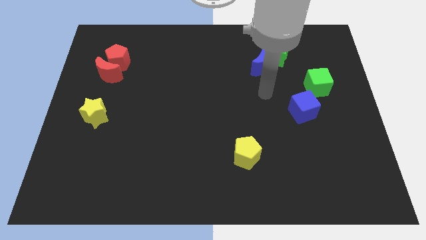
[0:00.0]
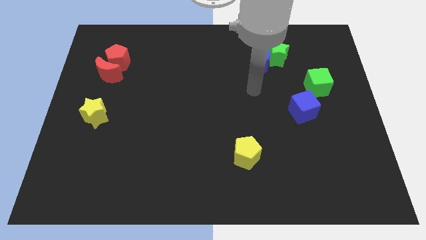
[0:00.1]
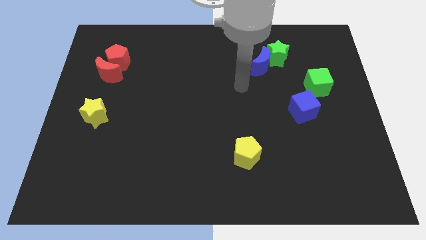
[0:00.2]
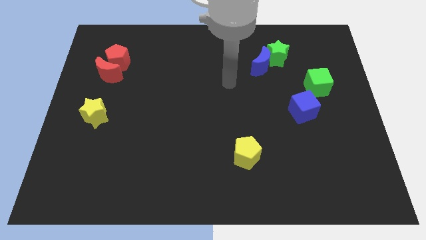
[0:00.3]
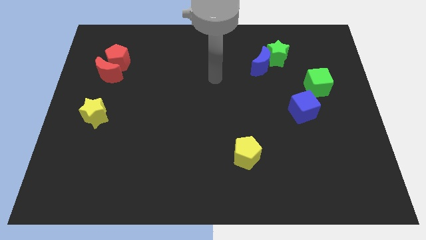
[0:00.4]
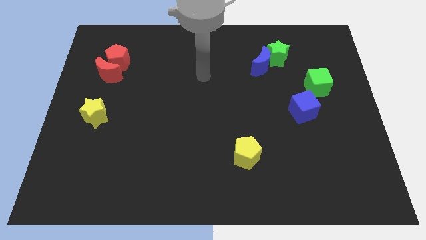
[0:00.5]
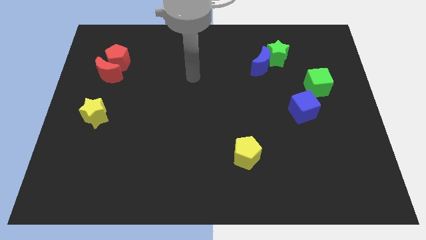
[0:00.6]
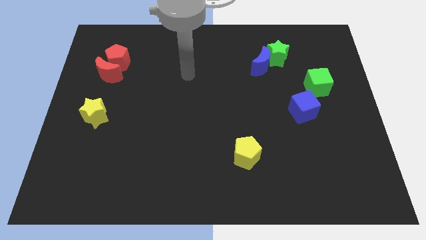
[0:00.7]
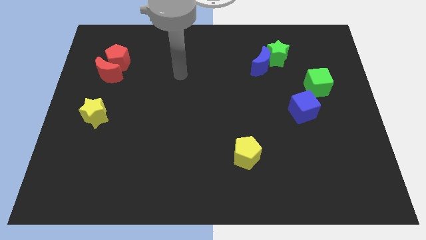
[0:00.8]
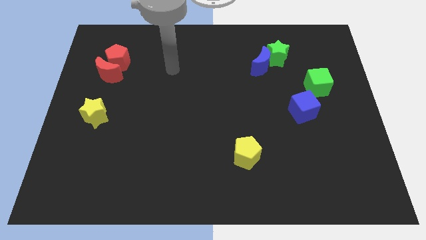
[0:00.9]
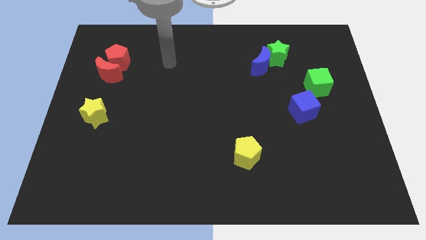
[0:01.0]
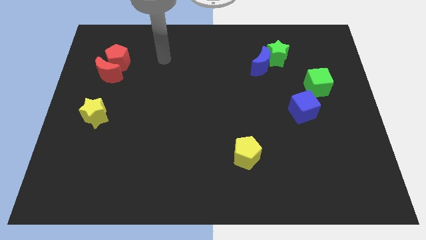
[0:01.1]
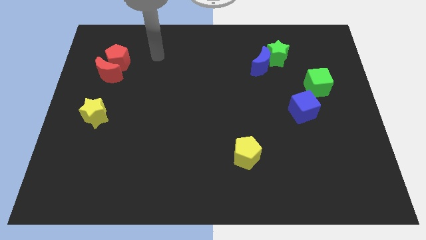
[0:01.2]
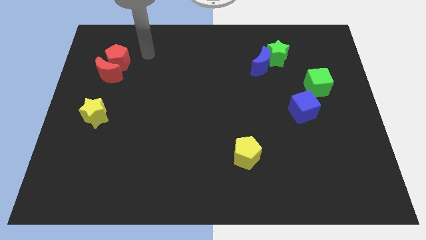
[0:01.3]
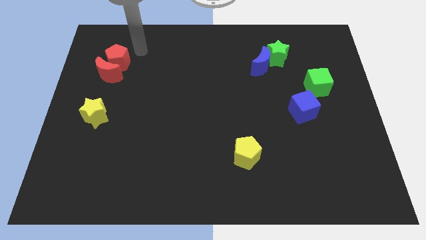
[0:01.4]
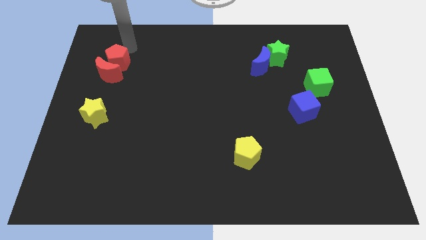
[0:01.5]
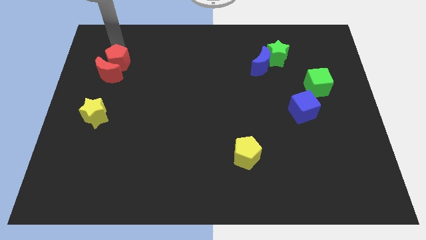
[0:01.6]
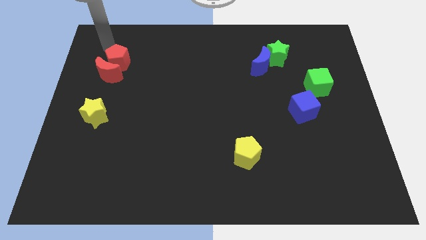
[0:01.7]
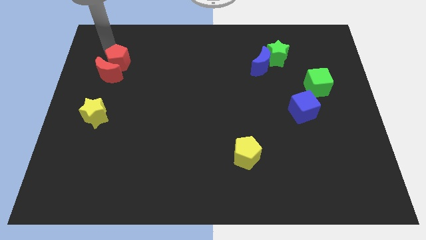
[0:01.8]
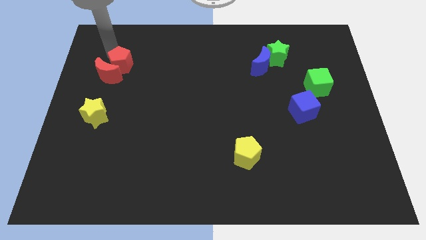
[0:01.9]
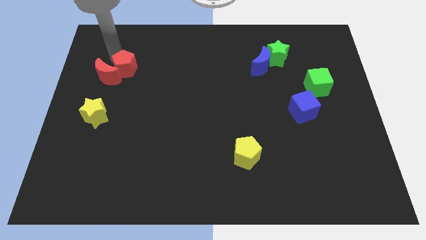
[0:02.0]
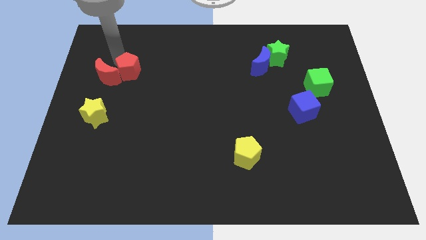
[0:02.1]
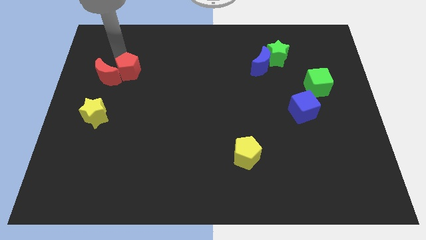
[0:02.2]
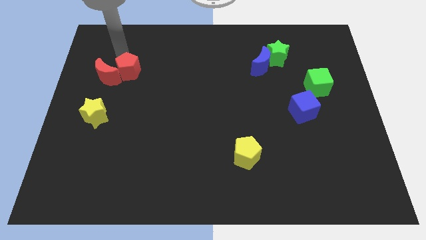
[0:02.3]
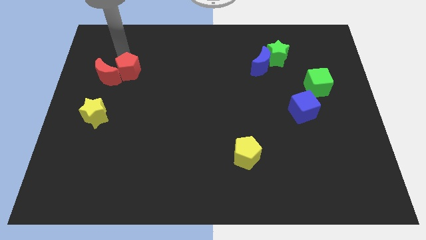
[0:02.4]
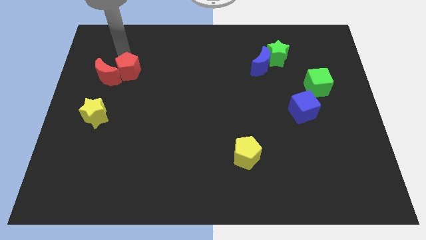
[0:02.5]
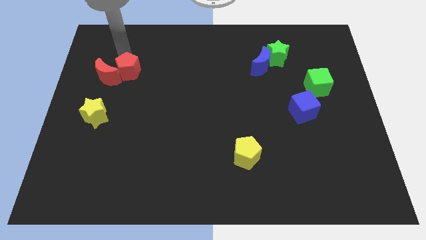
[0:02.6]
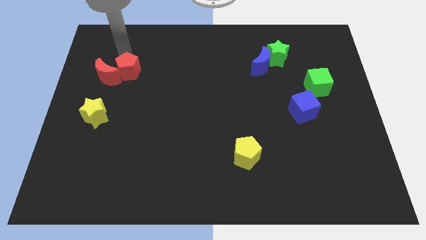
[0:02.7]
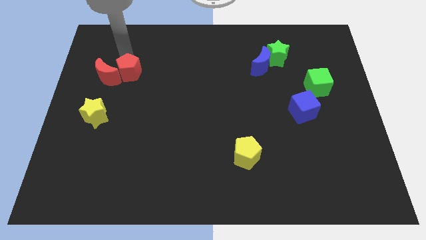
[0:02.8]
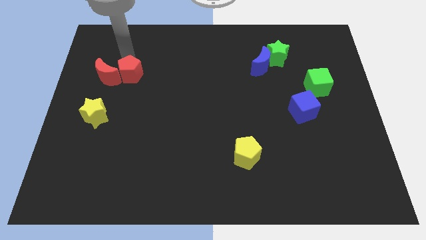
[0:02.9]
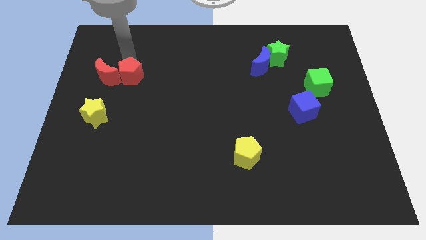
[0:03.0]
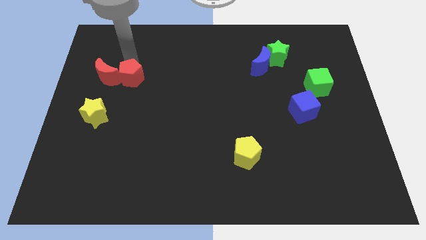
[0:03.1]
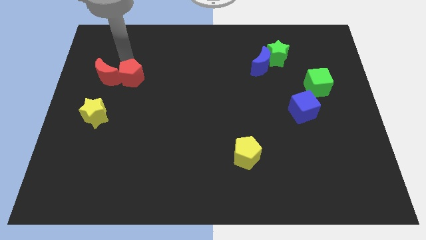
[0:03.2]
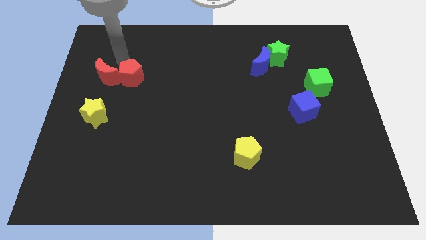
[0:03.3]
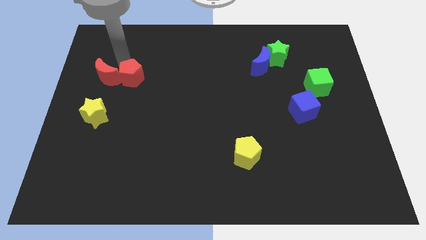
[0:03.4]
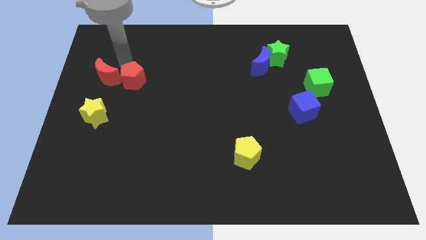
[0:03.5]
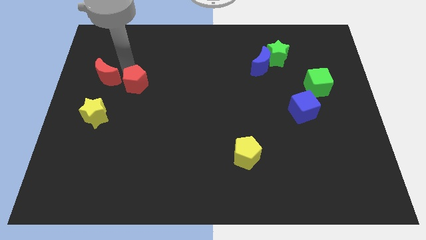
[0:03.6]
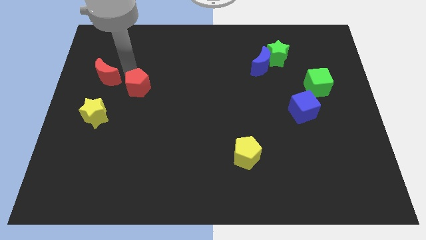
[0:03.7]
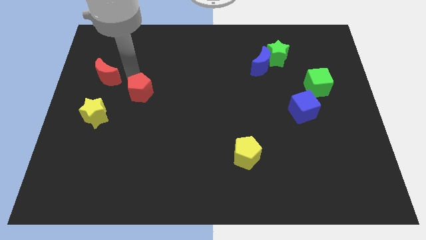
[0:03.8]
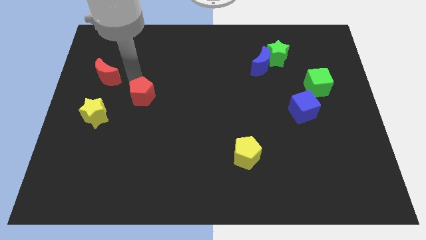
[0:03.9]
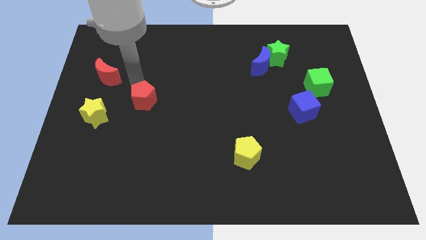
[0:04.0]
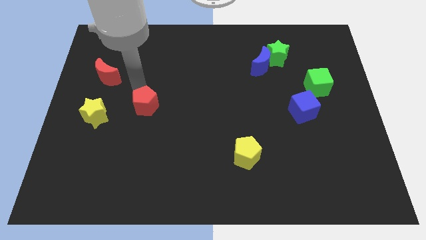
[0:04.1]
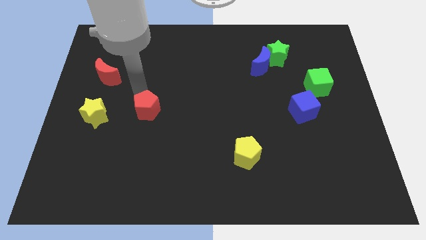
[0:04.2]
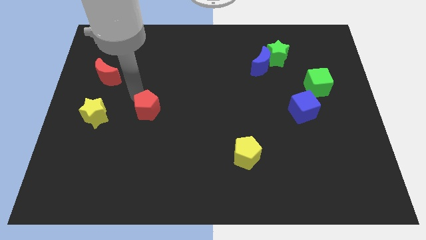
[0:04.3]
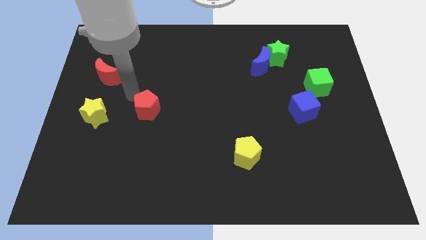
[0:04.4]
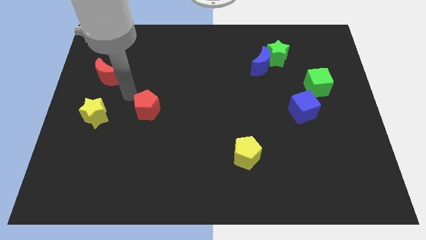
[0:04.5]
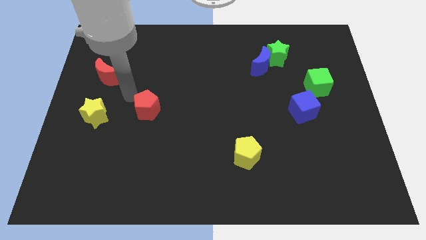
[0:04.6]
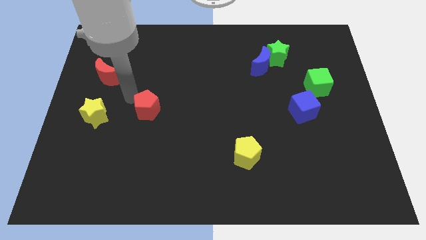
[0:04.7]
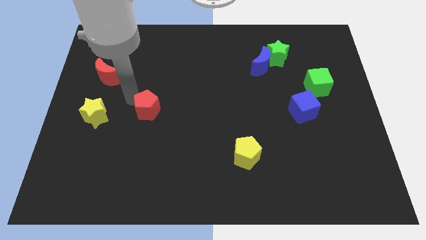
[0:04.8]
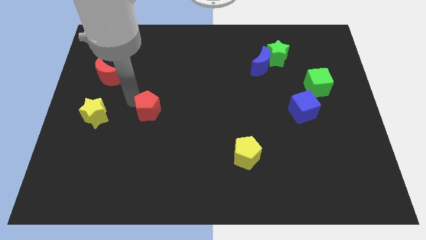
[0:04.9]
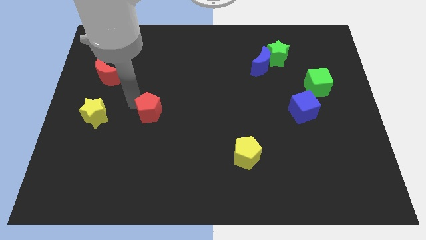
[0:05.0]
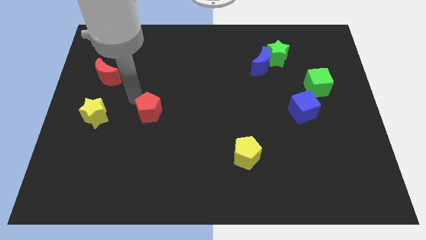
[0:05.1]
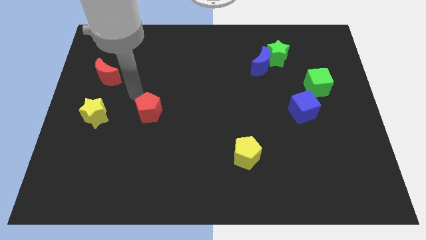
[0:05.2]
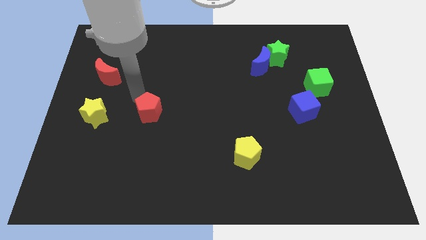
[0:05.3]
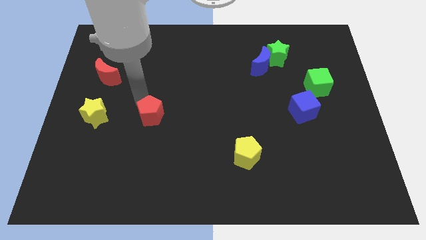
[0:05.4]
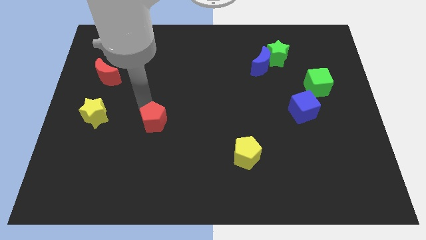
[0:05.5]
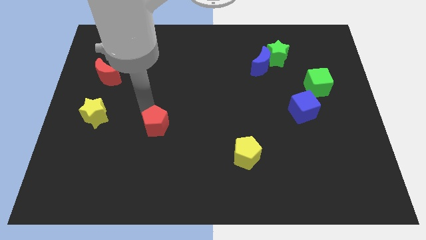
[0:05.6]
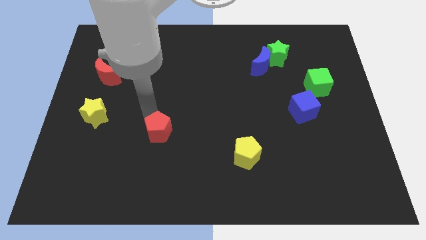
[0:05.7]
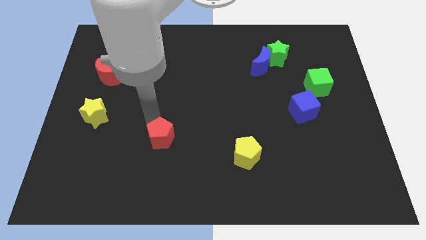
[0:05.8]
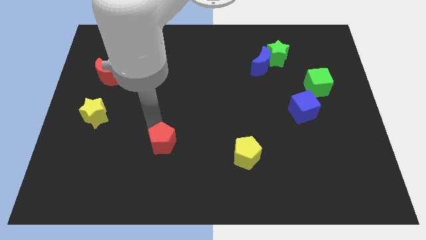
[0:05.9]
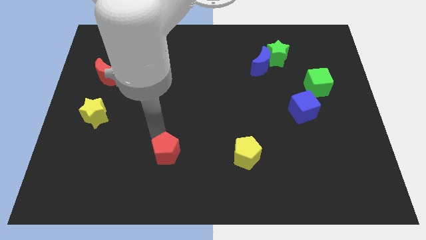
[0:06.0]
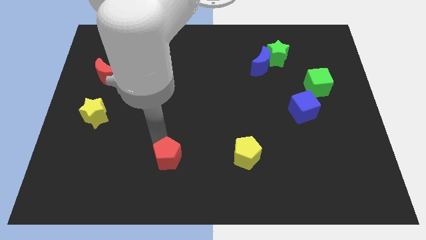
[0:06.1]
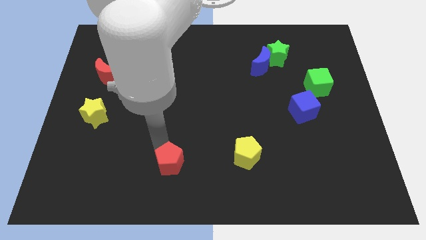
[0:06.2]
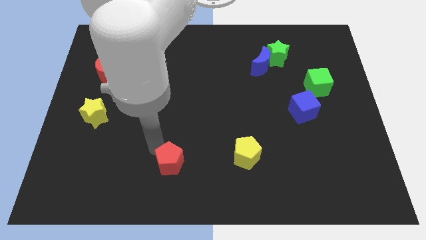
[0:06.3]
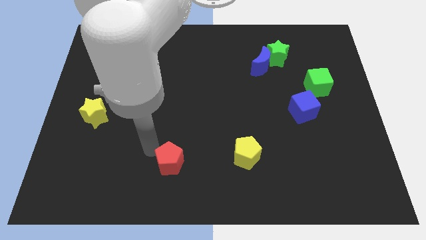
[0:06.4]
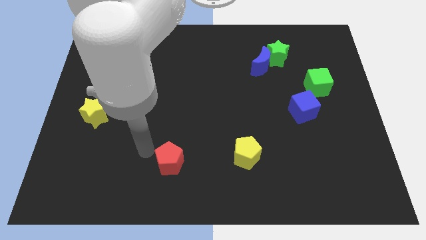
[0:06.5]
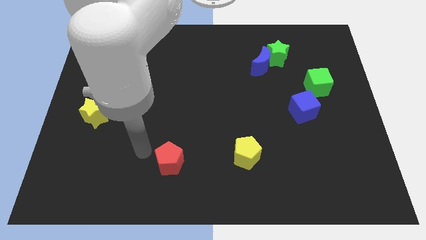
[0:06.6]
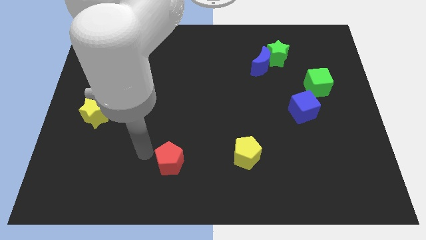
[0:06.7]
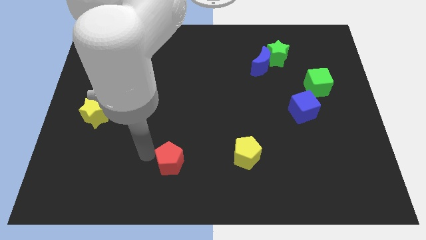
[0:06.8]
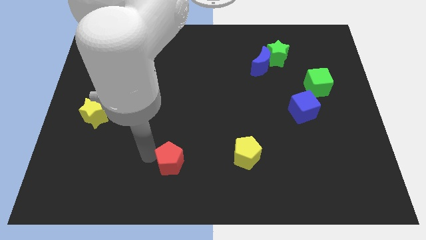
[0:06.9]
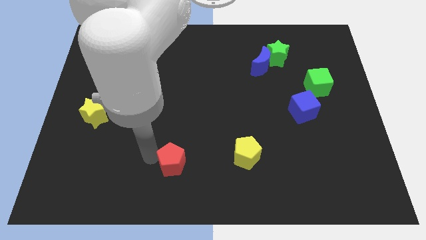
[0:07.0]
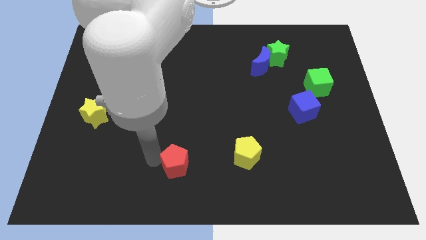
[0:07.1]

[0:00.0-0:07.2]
push the red pentagon to the bottom
